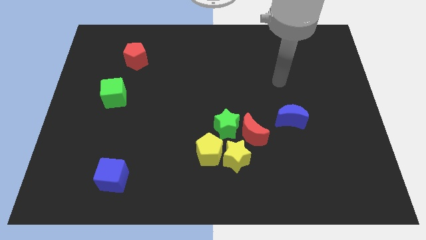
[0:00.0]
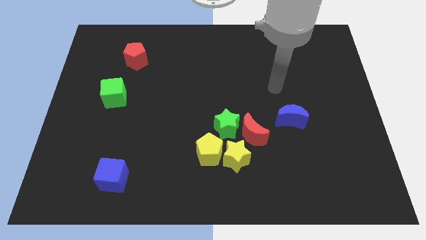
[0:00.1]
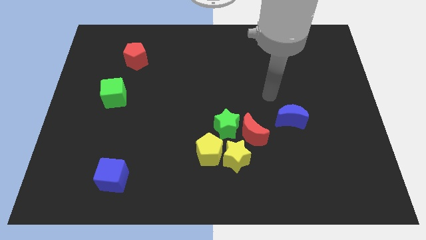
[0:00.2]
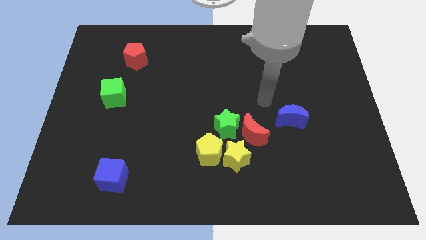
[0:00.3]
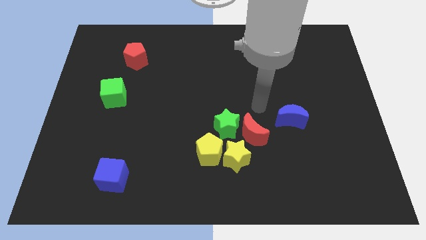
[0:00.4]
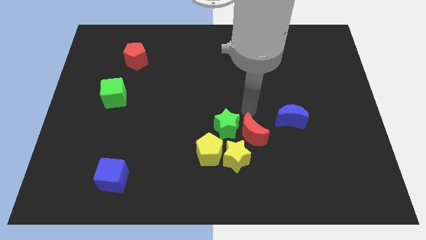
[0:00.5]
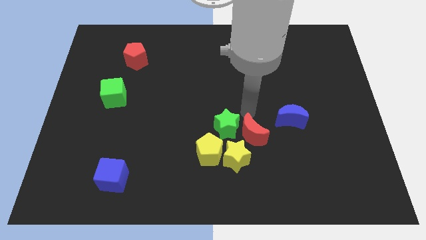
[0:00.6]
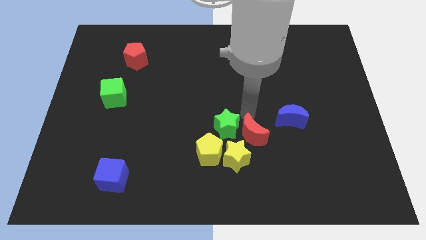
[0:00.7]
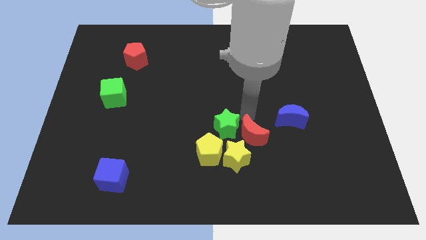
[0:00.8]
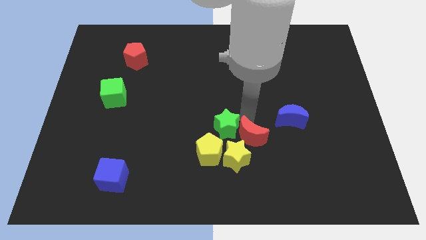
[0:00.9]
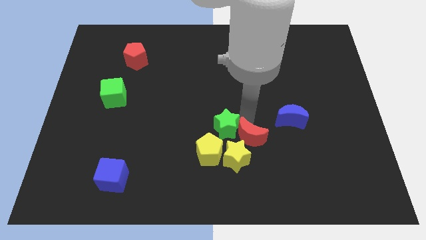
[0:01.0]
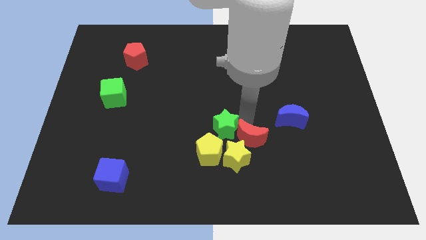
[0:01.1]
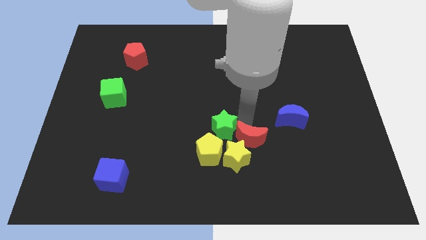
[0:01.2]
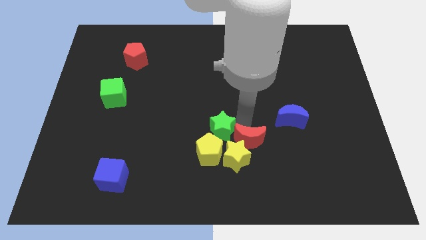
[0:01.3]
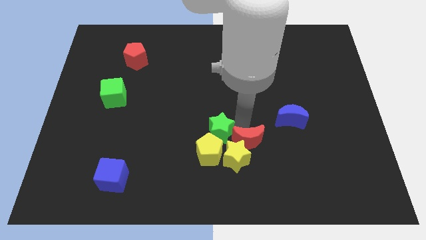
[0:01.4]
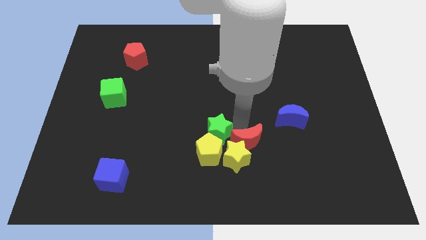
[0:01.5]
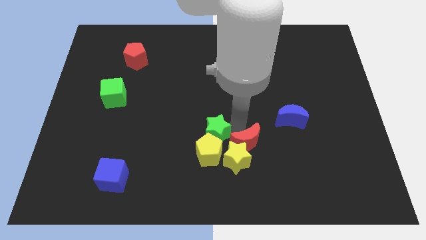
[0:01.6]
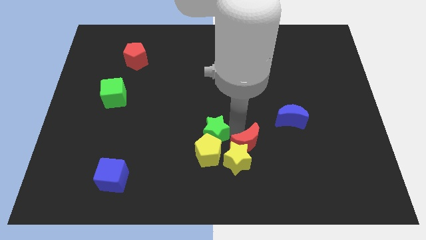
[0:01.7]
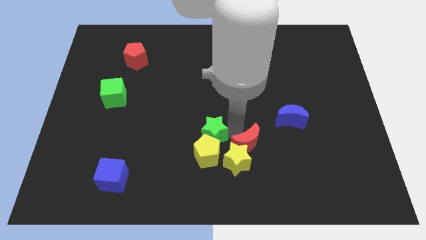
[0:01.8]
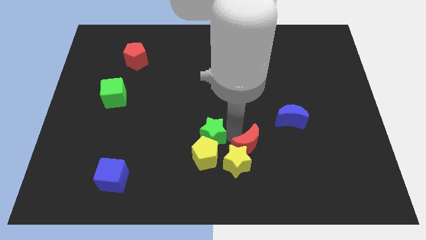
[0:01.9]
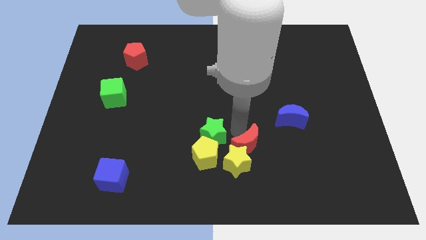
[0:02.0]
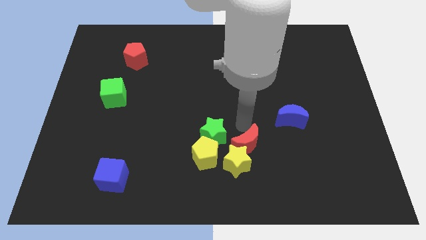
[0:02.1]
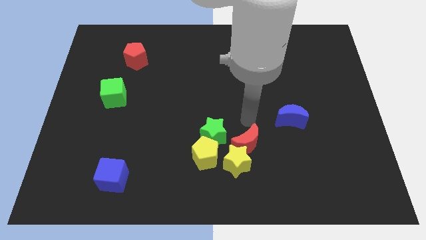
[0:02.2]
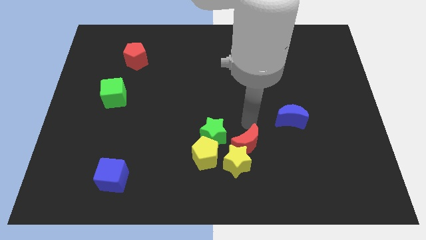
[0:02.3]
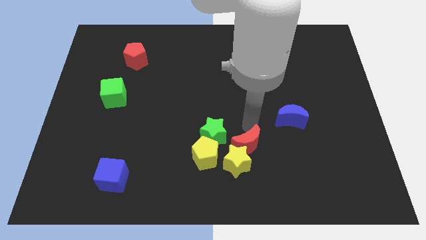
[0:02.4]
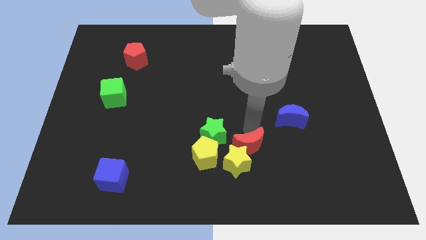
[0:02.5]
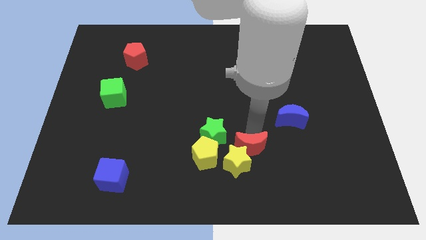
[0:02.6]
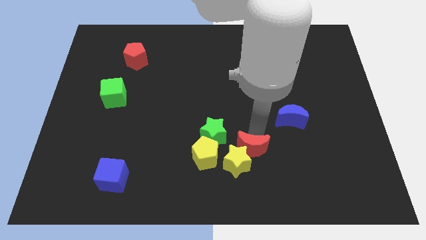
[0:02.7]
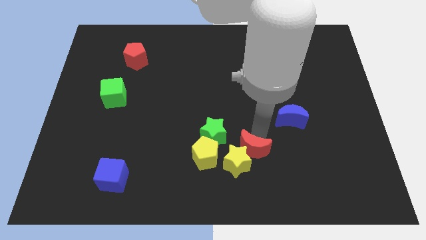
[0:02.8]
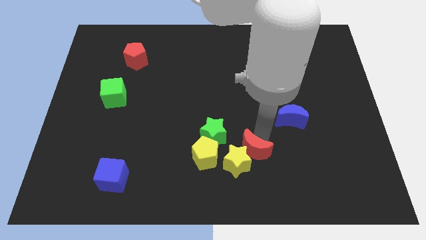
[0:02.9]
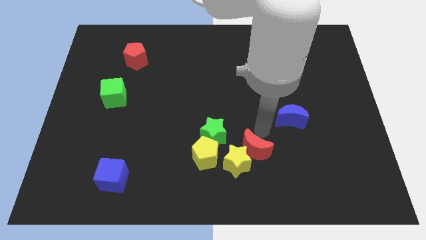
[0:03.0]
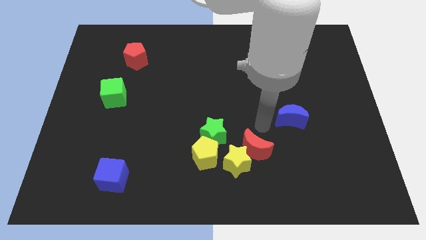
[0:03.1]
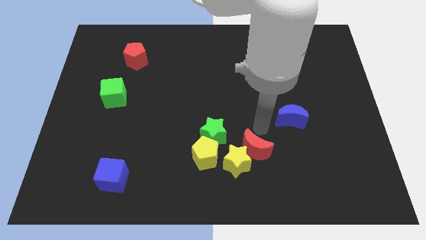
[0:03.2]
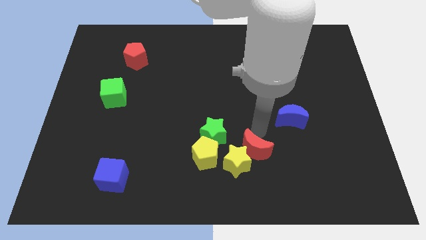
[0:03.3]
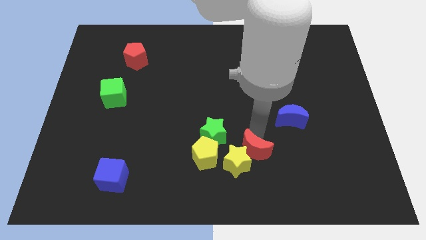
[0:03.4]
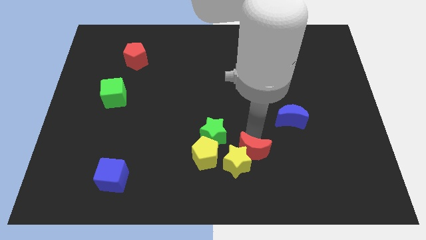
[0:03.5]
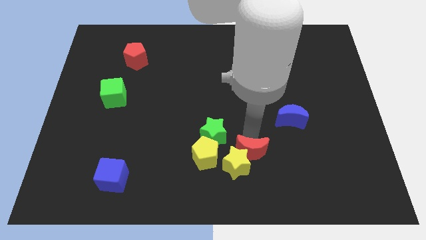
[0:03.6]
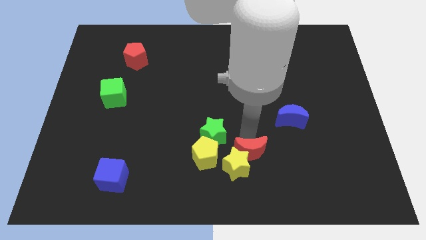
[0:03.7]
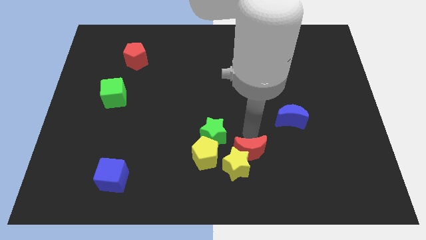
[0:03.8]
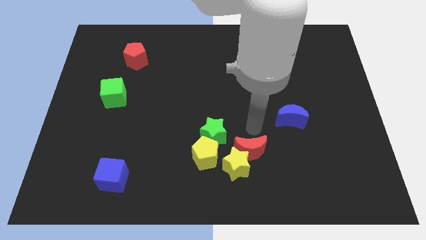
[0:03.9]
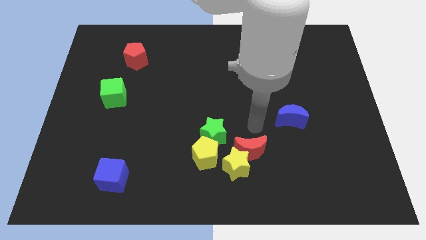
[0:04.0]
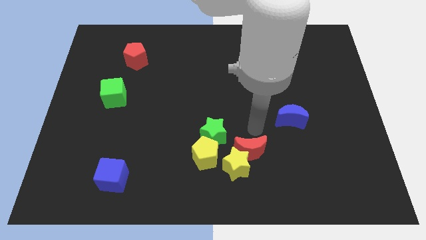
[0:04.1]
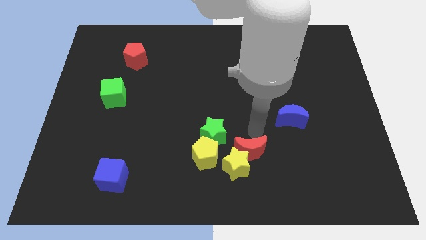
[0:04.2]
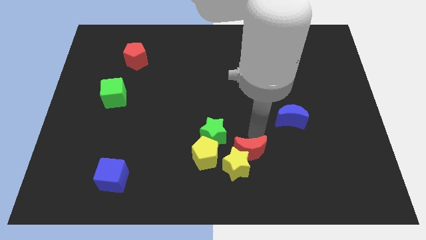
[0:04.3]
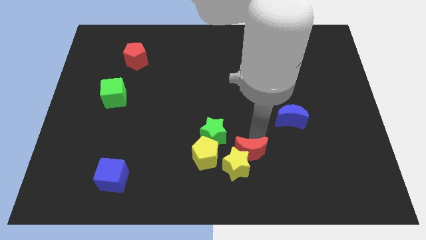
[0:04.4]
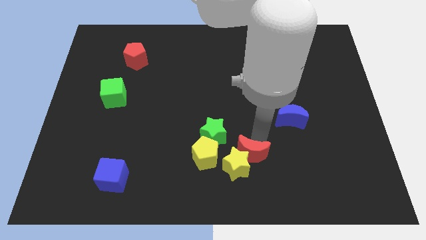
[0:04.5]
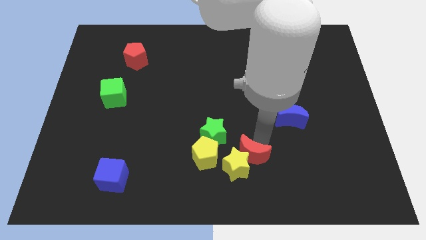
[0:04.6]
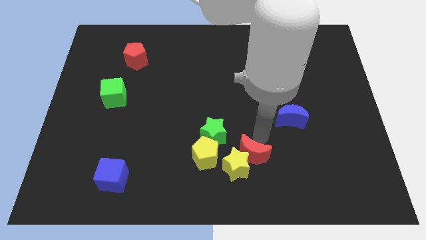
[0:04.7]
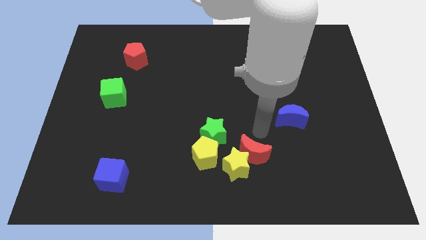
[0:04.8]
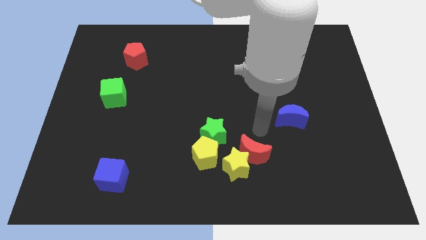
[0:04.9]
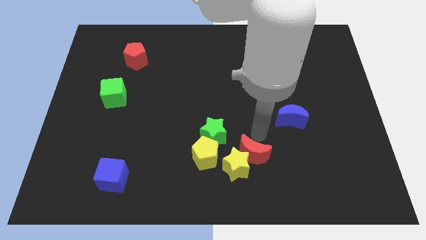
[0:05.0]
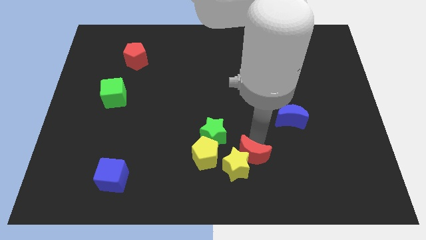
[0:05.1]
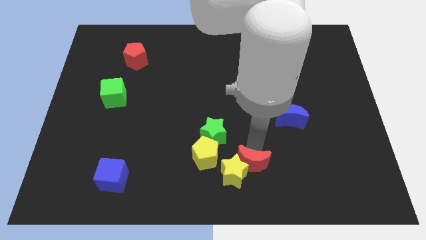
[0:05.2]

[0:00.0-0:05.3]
slide the red moon to the bottom

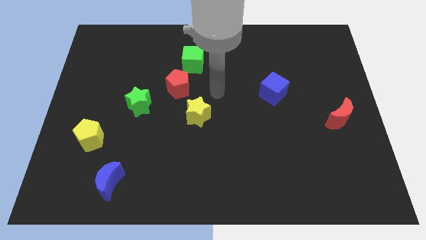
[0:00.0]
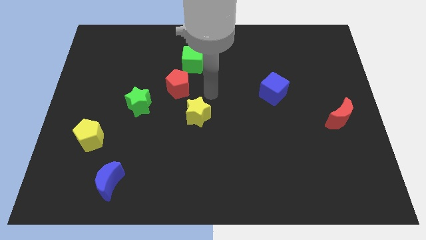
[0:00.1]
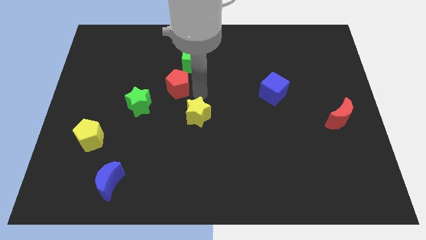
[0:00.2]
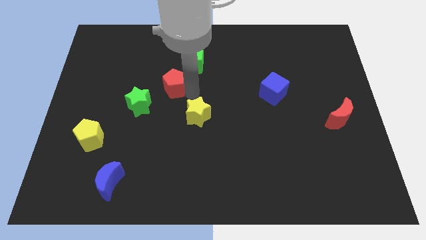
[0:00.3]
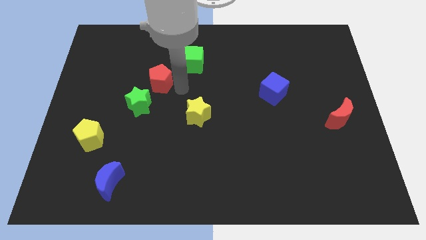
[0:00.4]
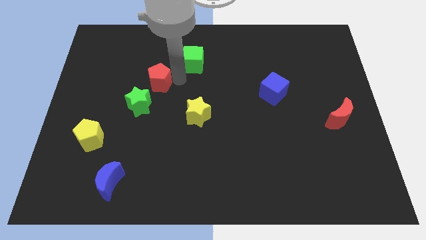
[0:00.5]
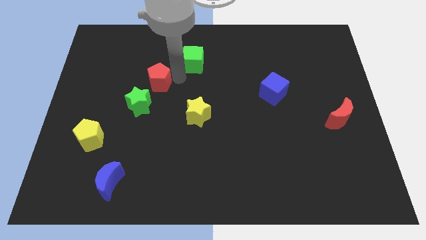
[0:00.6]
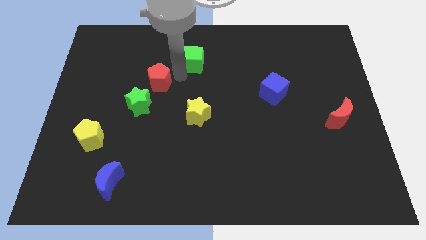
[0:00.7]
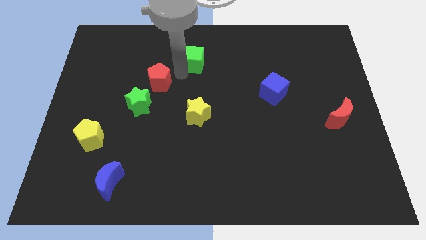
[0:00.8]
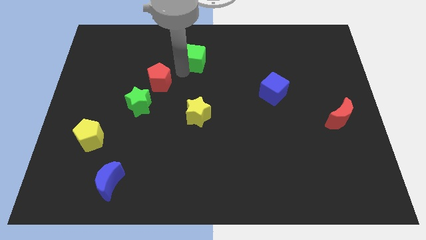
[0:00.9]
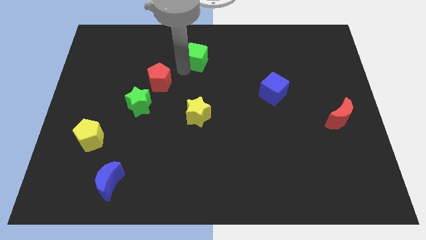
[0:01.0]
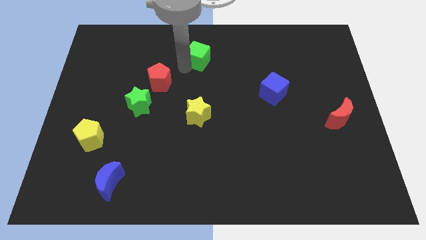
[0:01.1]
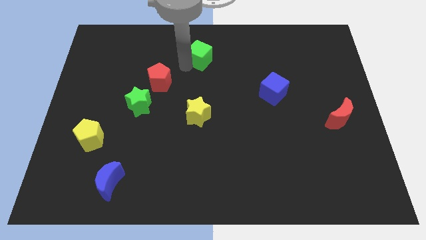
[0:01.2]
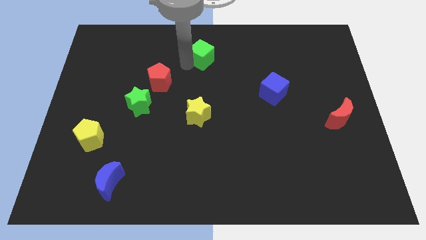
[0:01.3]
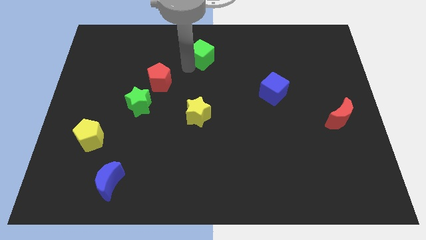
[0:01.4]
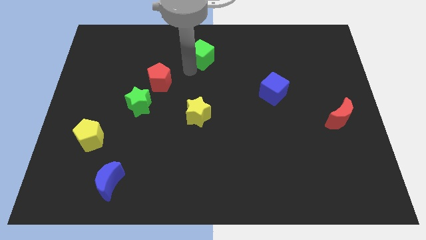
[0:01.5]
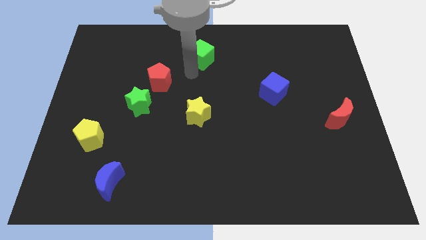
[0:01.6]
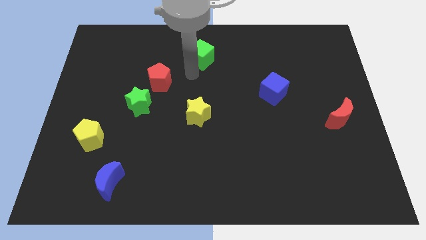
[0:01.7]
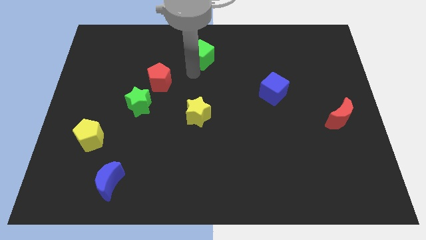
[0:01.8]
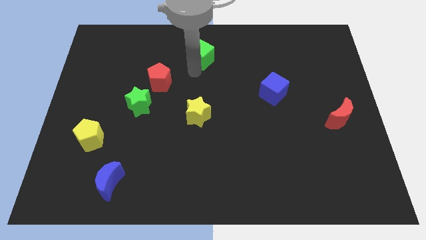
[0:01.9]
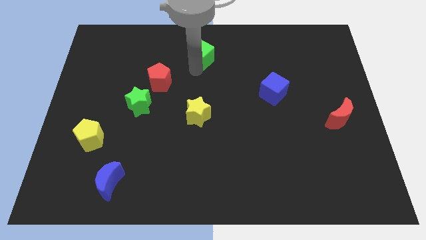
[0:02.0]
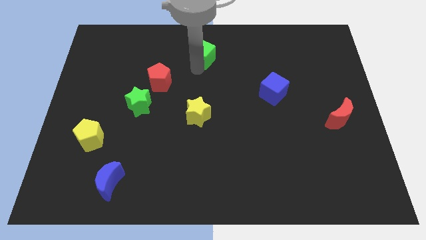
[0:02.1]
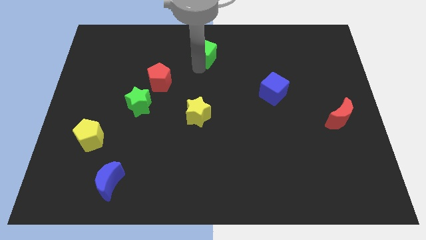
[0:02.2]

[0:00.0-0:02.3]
put the green cube to the towards your base
